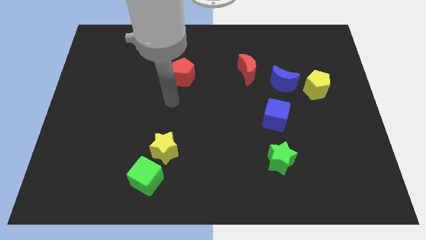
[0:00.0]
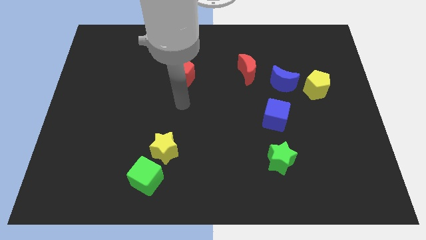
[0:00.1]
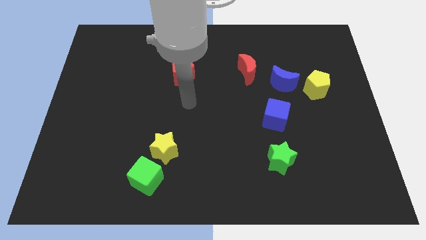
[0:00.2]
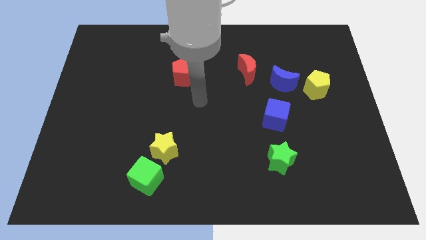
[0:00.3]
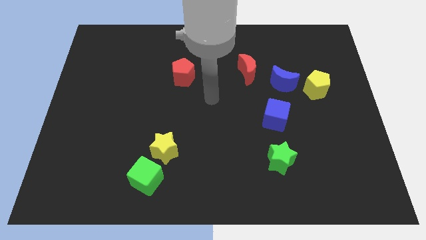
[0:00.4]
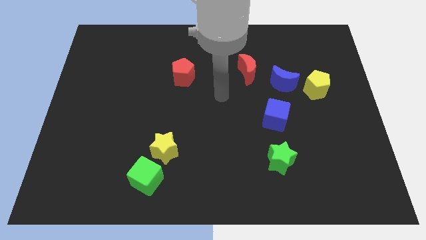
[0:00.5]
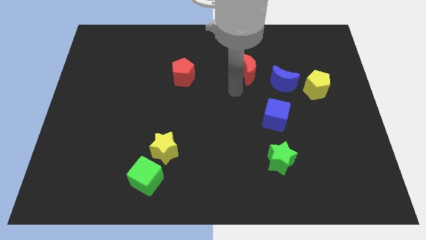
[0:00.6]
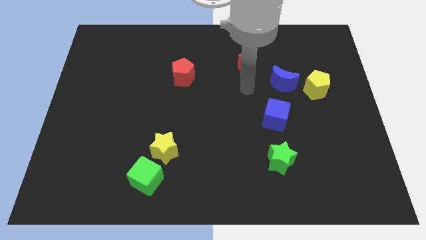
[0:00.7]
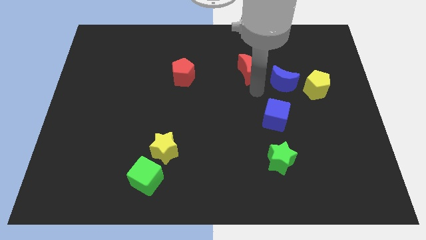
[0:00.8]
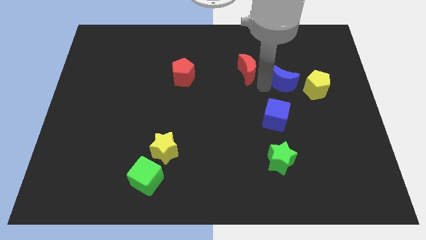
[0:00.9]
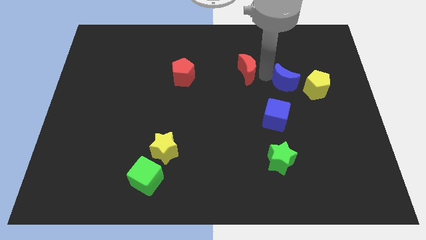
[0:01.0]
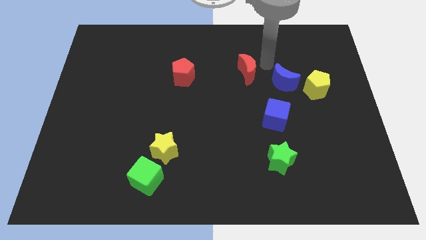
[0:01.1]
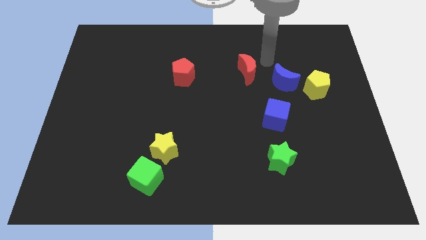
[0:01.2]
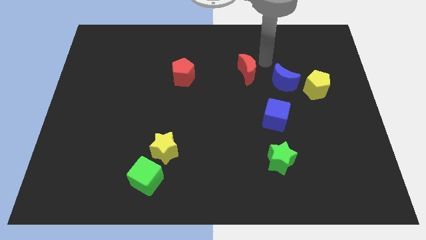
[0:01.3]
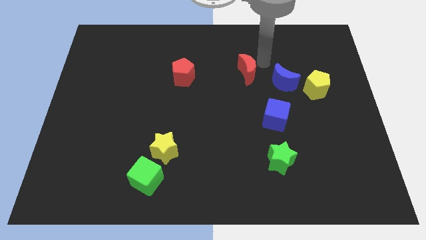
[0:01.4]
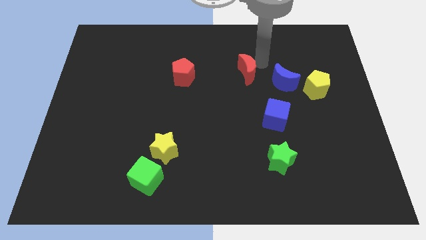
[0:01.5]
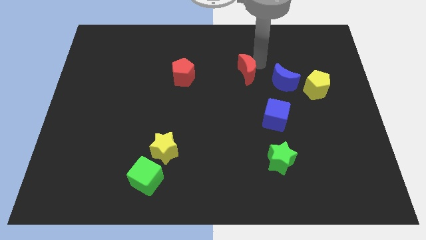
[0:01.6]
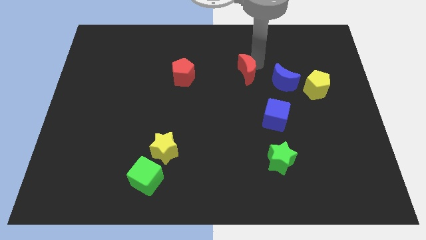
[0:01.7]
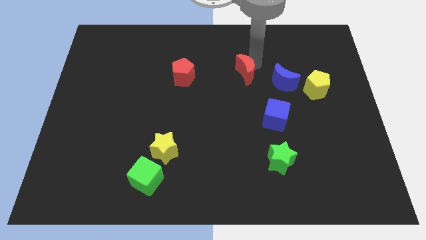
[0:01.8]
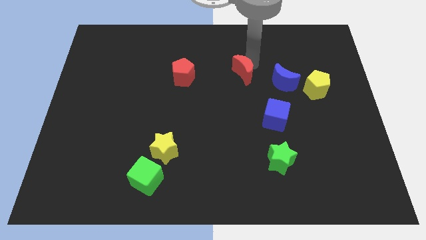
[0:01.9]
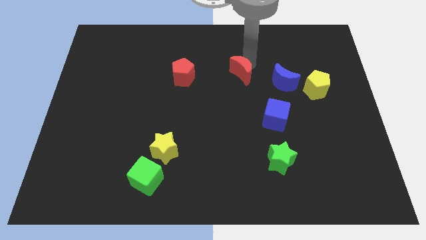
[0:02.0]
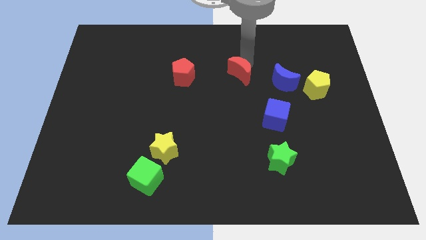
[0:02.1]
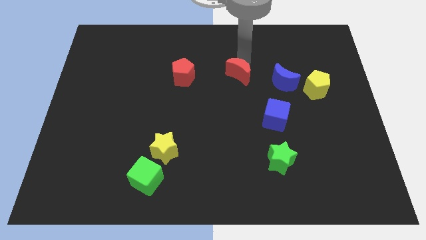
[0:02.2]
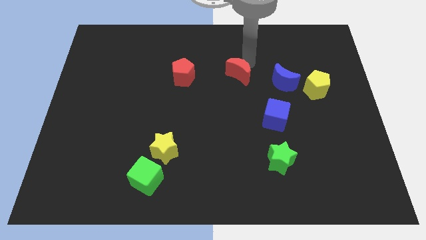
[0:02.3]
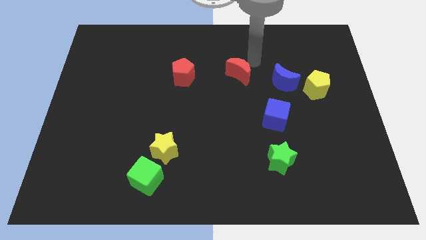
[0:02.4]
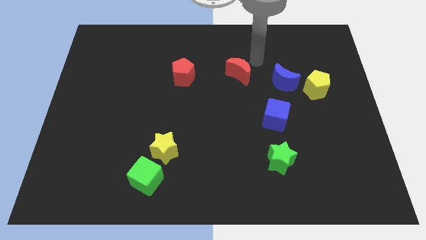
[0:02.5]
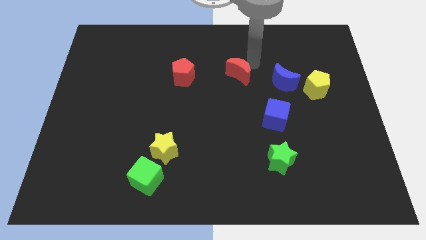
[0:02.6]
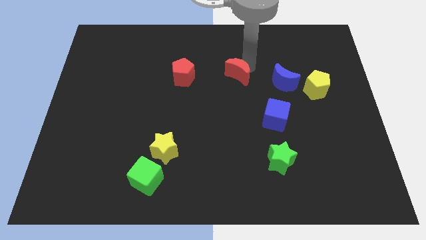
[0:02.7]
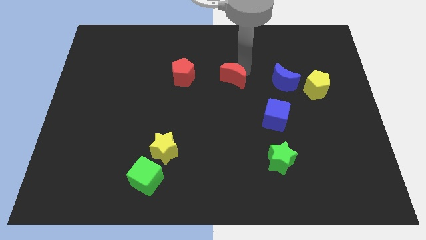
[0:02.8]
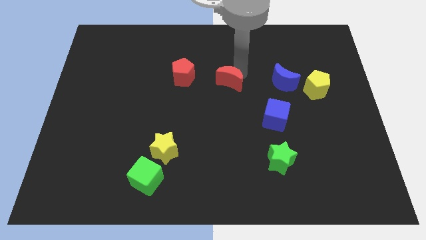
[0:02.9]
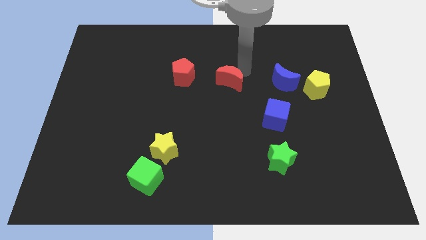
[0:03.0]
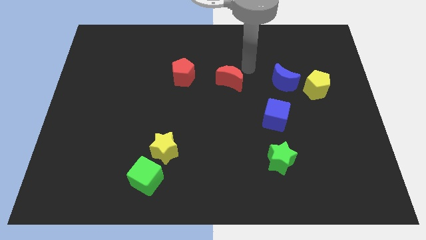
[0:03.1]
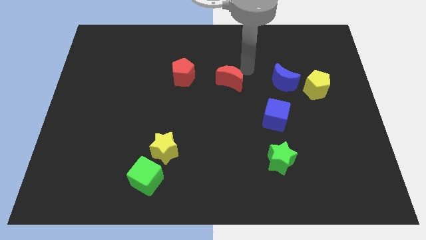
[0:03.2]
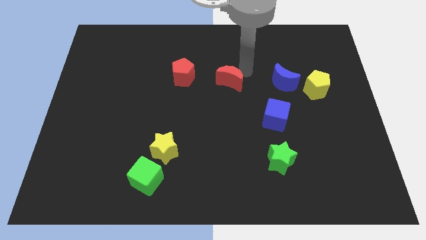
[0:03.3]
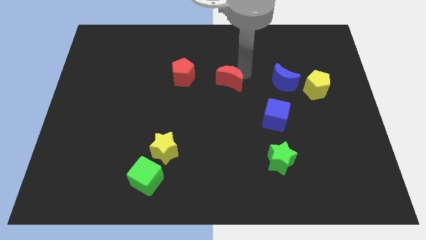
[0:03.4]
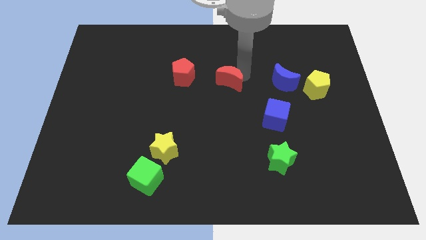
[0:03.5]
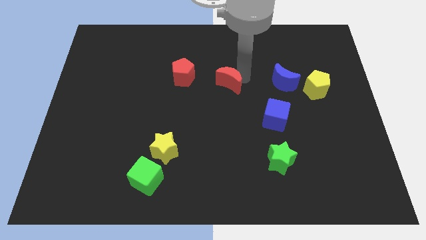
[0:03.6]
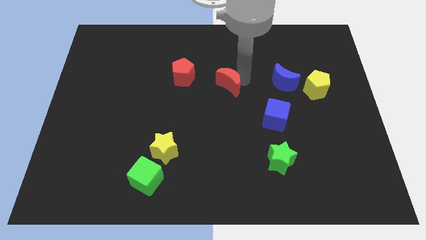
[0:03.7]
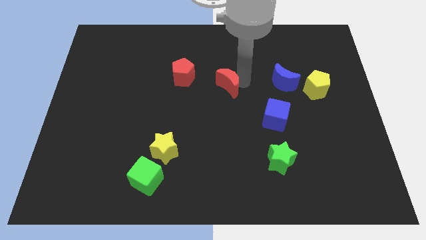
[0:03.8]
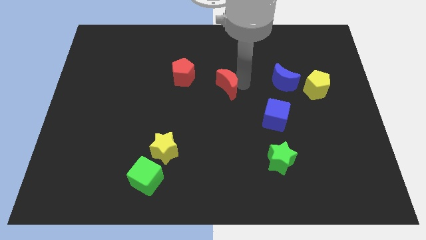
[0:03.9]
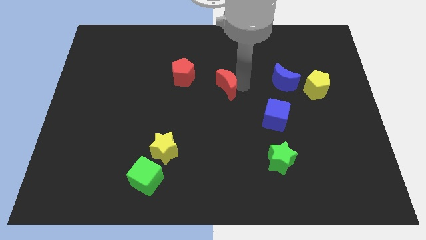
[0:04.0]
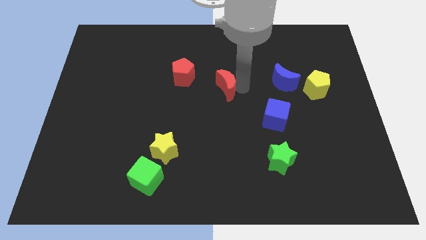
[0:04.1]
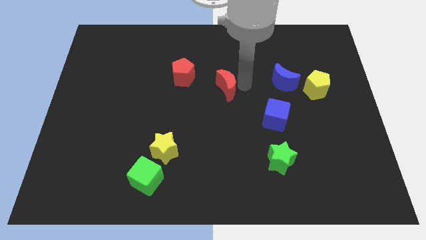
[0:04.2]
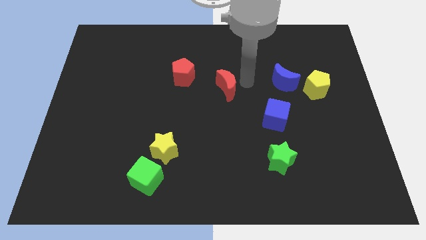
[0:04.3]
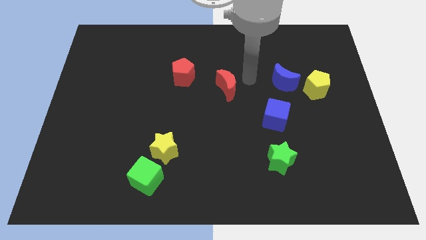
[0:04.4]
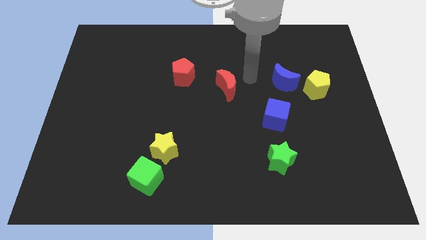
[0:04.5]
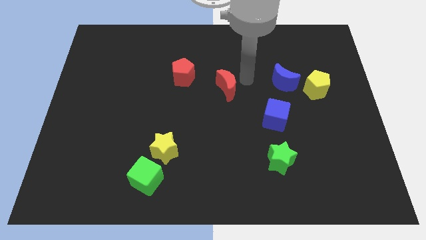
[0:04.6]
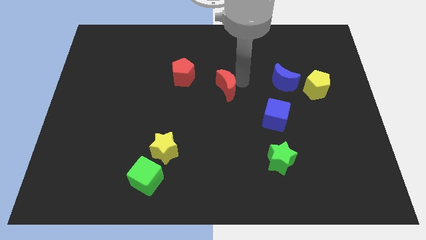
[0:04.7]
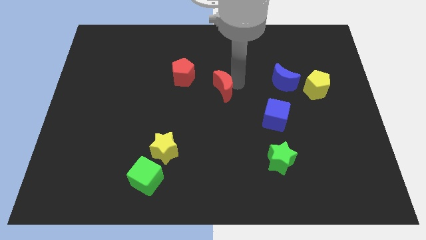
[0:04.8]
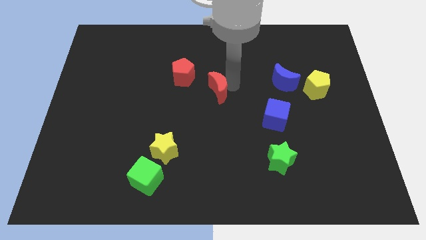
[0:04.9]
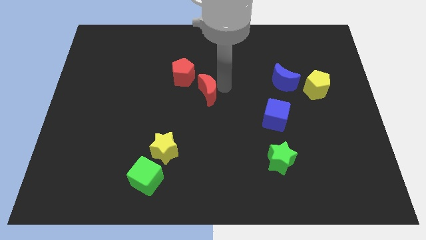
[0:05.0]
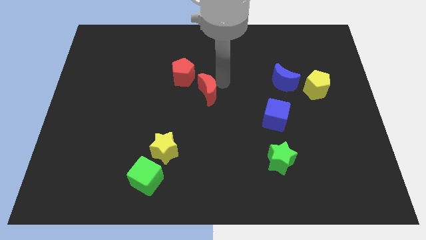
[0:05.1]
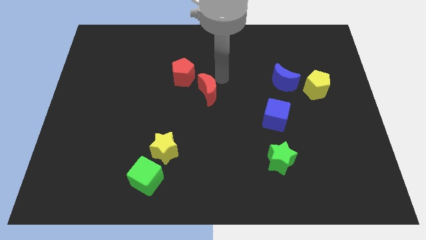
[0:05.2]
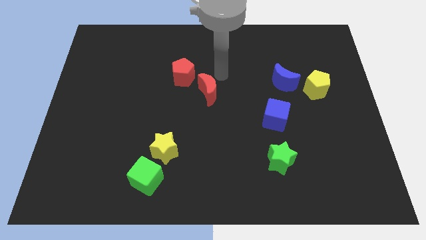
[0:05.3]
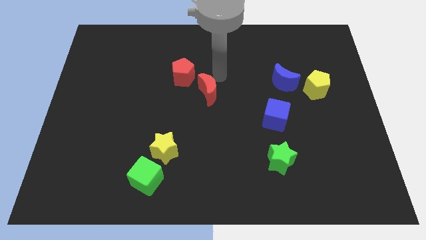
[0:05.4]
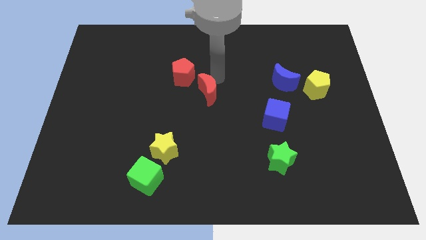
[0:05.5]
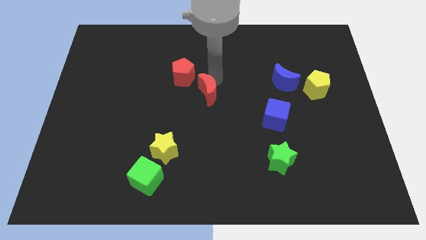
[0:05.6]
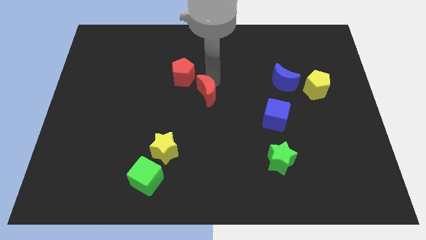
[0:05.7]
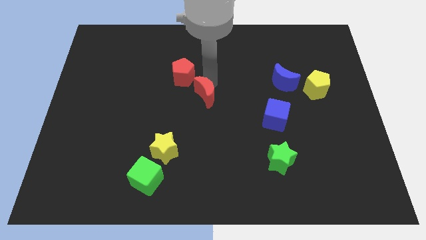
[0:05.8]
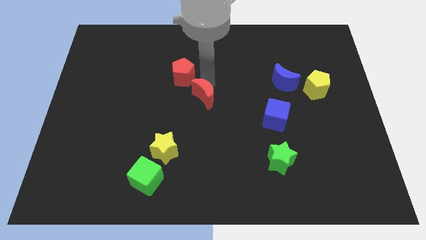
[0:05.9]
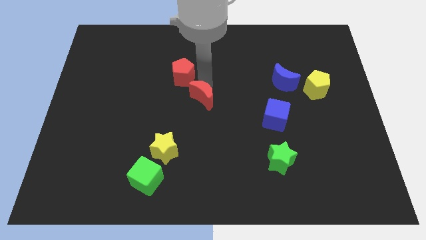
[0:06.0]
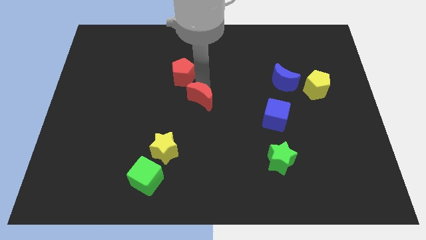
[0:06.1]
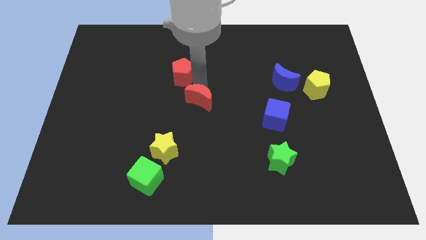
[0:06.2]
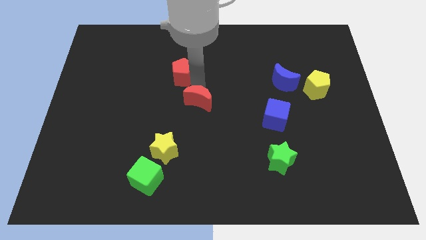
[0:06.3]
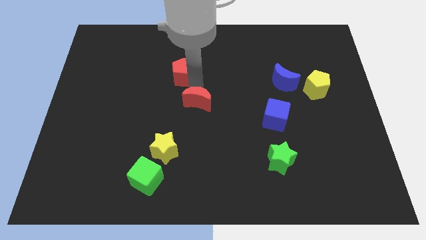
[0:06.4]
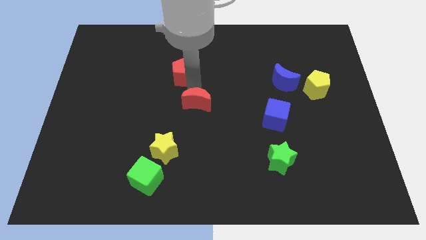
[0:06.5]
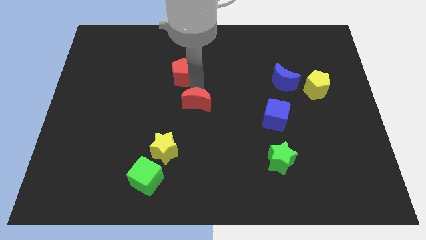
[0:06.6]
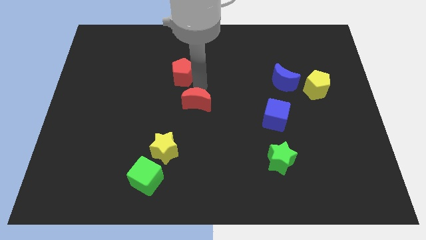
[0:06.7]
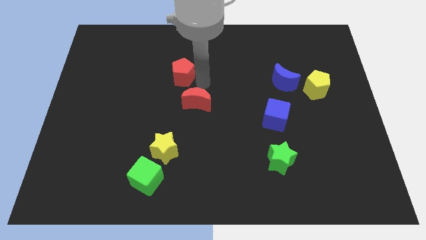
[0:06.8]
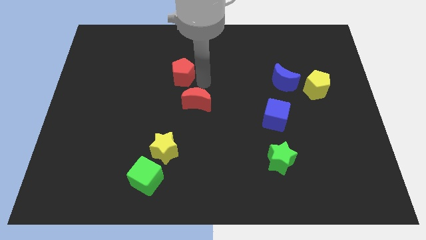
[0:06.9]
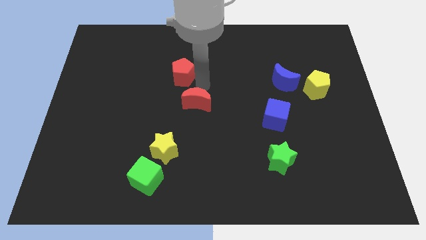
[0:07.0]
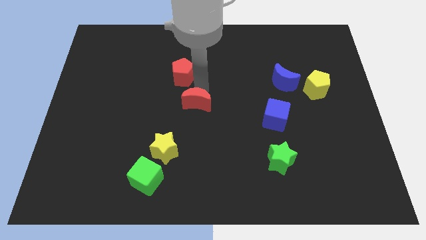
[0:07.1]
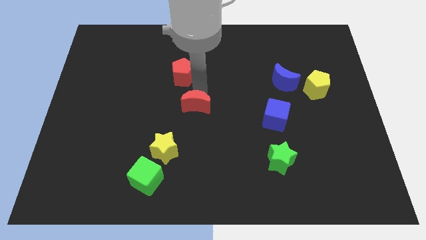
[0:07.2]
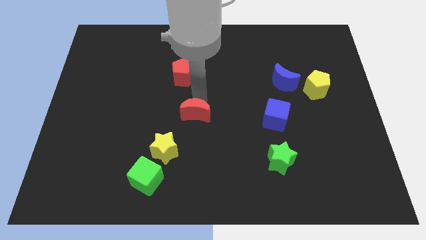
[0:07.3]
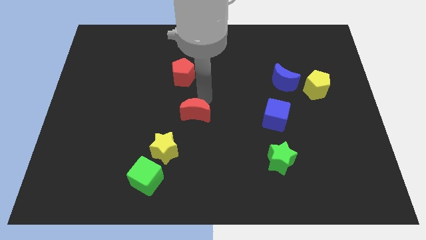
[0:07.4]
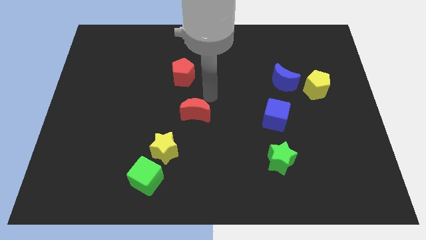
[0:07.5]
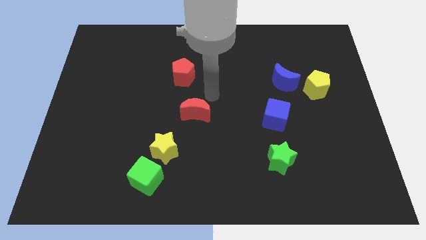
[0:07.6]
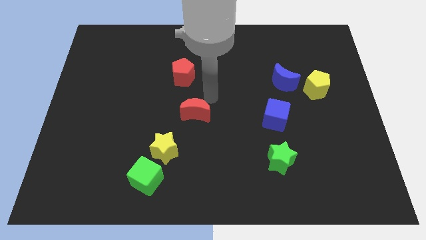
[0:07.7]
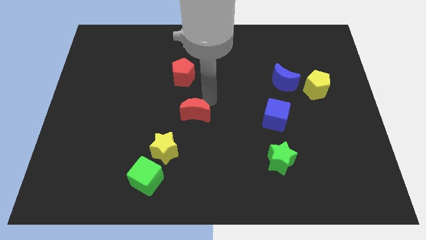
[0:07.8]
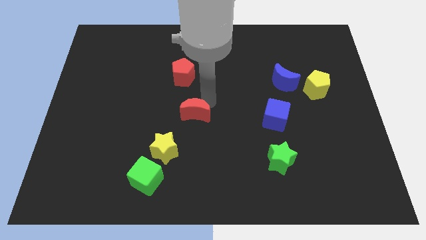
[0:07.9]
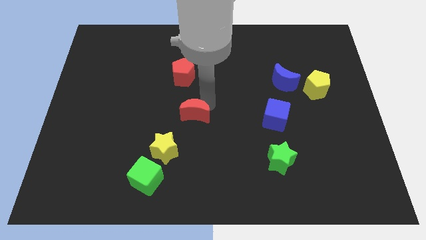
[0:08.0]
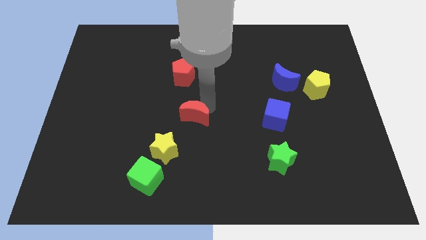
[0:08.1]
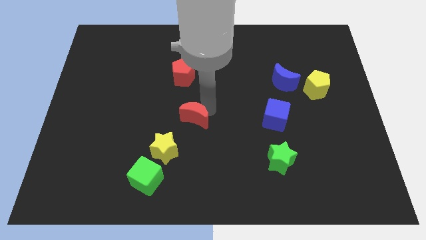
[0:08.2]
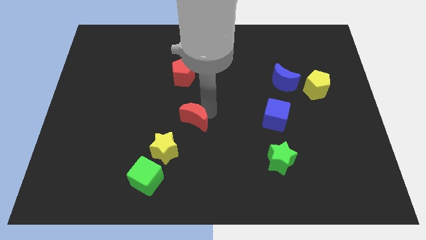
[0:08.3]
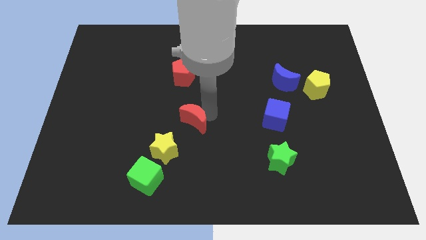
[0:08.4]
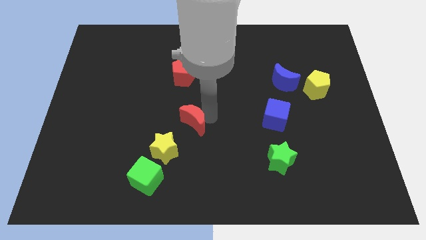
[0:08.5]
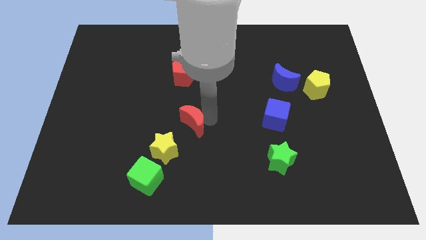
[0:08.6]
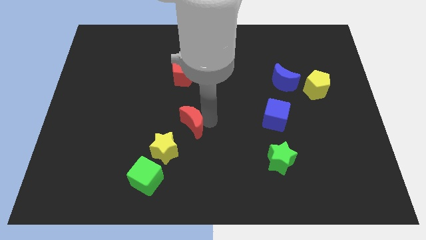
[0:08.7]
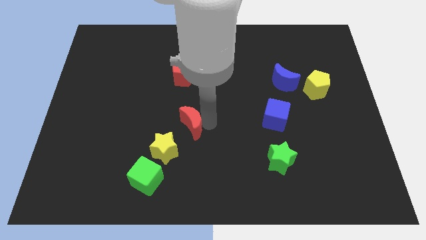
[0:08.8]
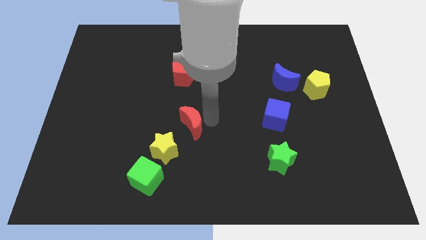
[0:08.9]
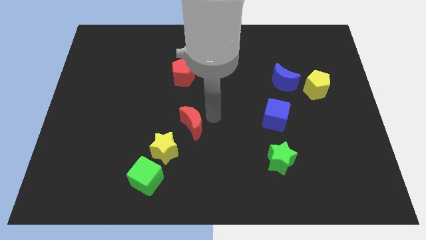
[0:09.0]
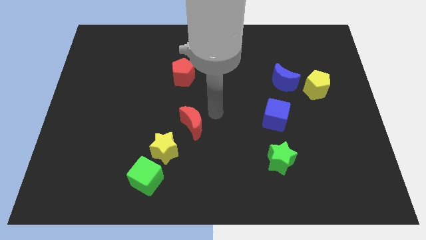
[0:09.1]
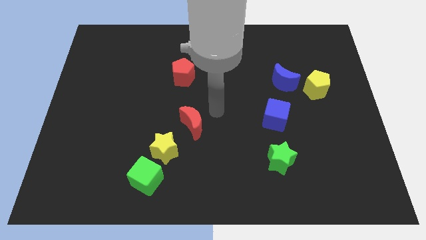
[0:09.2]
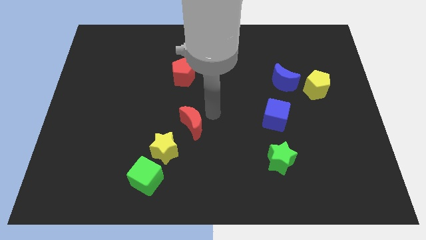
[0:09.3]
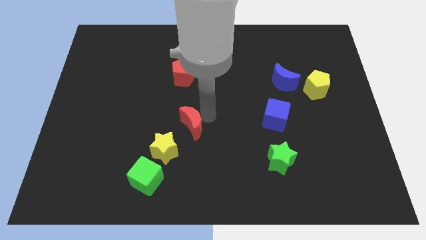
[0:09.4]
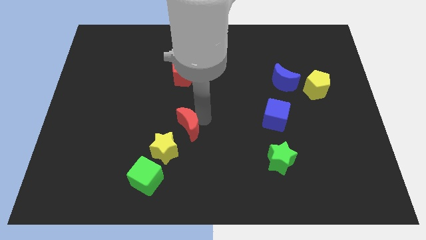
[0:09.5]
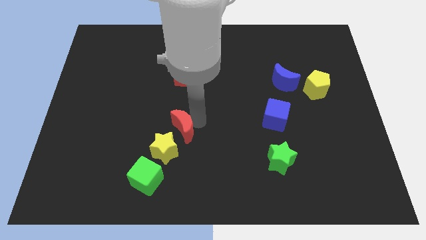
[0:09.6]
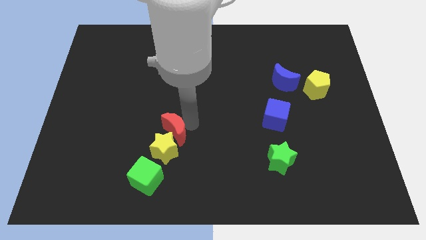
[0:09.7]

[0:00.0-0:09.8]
slide the red moon to the yellow star
